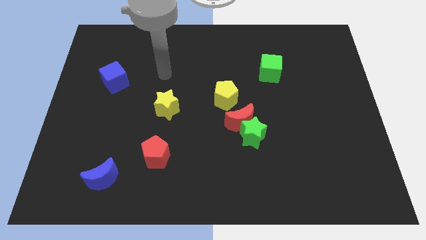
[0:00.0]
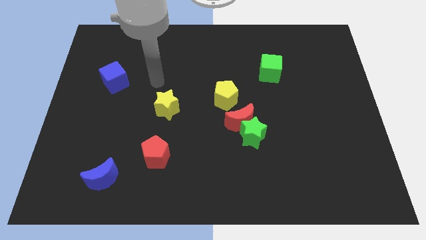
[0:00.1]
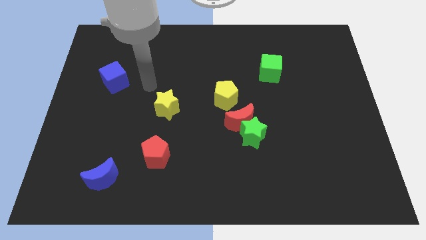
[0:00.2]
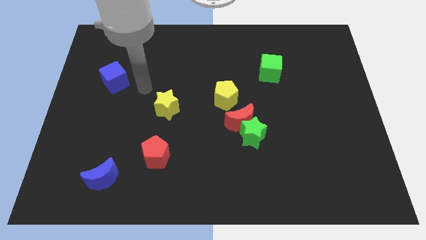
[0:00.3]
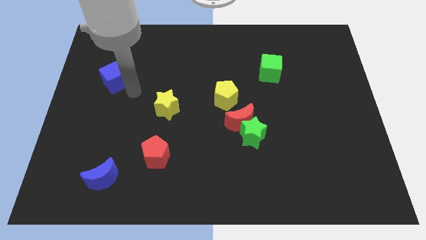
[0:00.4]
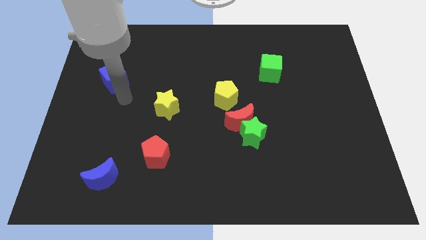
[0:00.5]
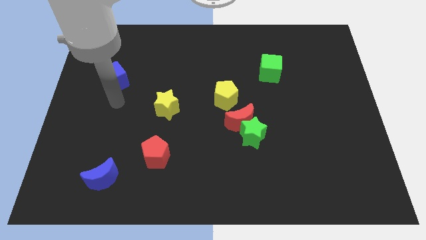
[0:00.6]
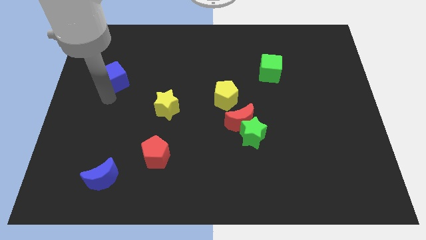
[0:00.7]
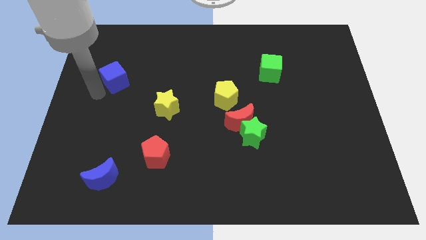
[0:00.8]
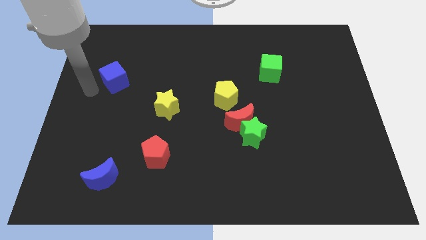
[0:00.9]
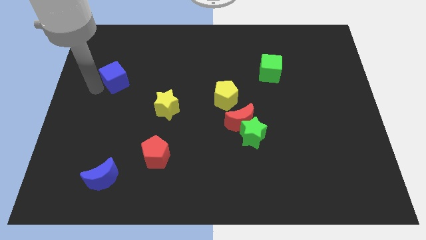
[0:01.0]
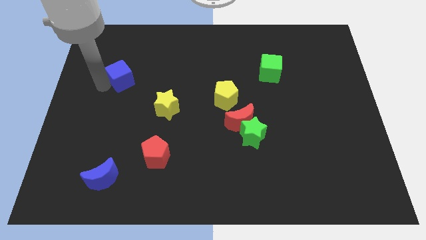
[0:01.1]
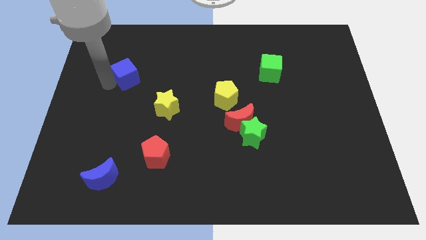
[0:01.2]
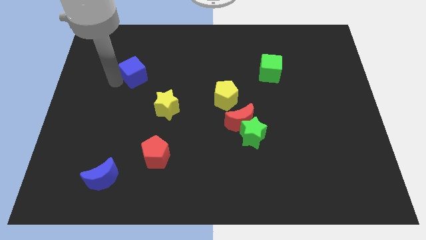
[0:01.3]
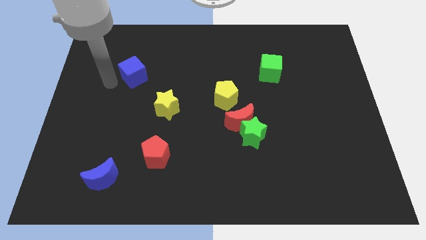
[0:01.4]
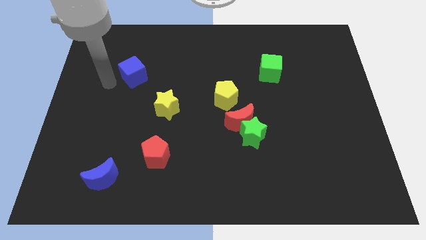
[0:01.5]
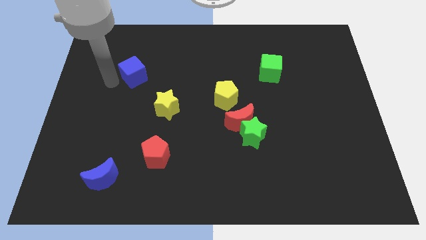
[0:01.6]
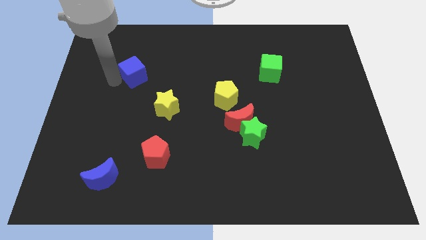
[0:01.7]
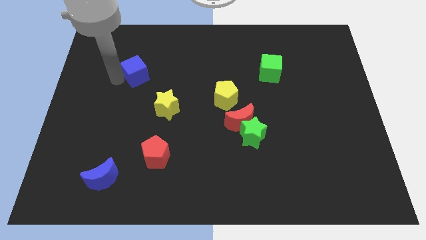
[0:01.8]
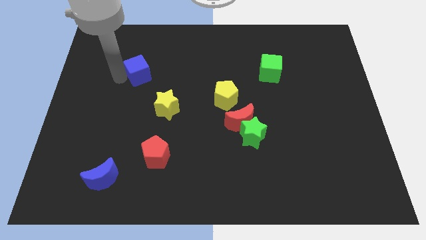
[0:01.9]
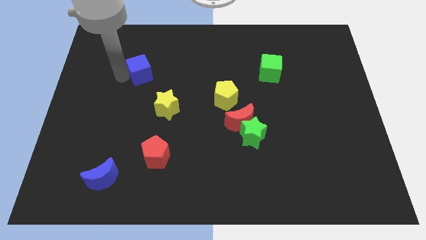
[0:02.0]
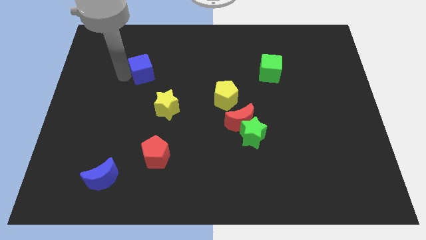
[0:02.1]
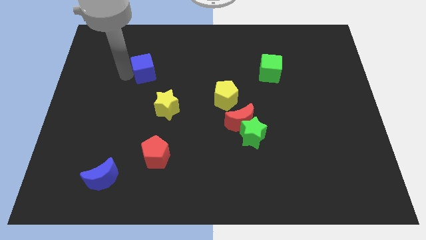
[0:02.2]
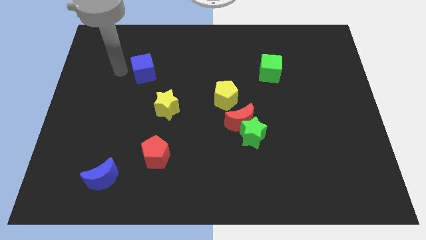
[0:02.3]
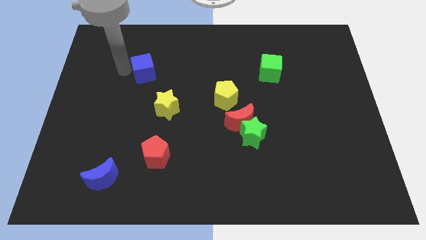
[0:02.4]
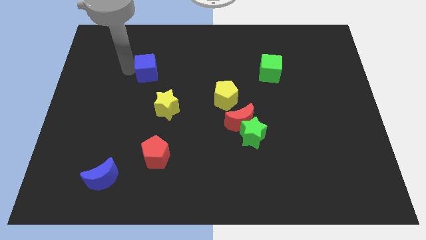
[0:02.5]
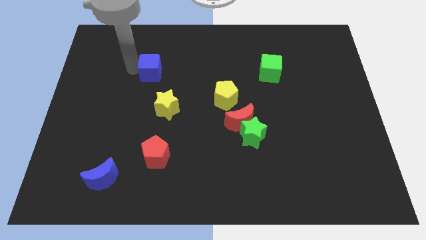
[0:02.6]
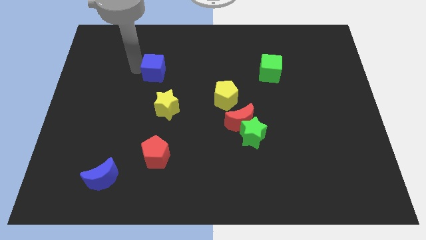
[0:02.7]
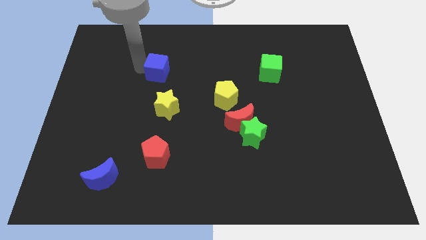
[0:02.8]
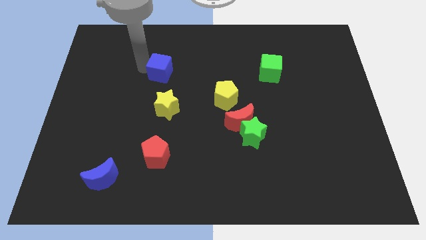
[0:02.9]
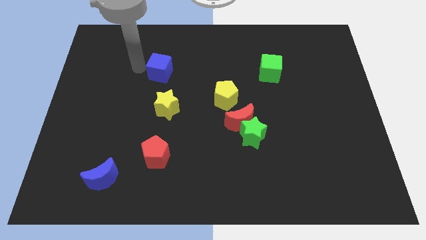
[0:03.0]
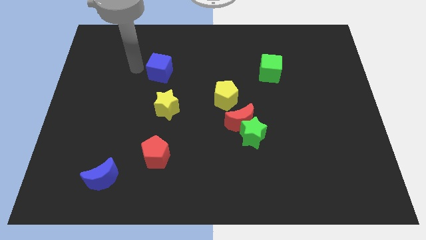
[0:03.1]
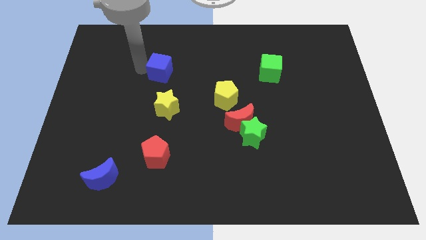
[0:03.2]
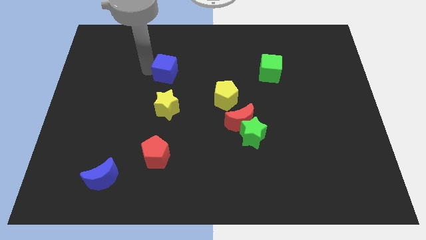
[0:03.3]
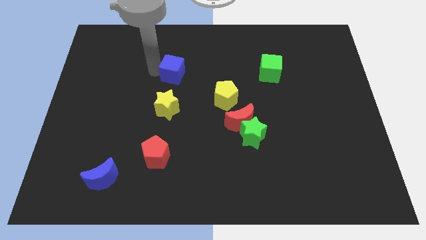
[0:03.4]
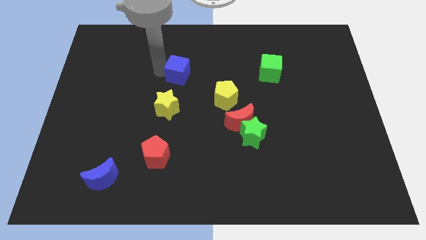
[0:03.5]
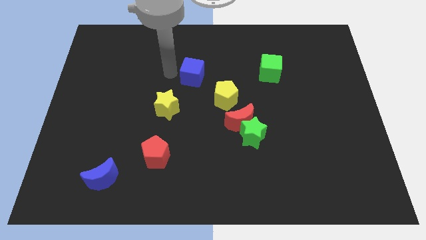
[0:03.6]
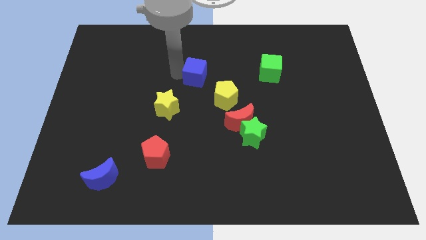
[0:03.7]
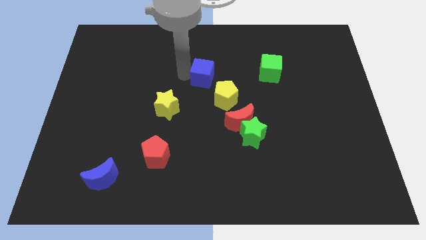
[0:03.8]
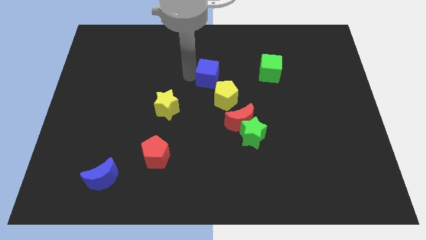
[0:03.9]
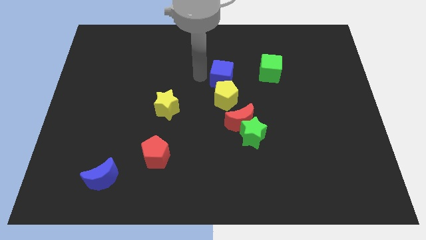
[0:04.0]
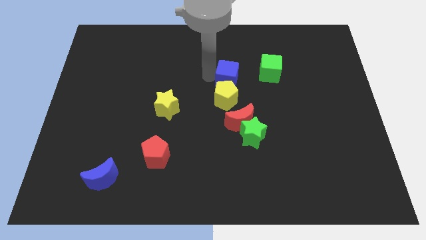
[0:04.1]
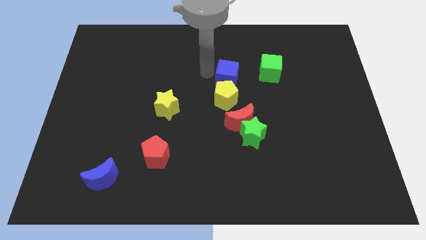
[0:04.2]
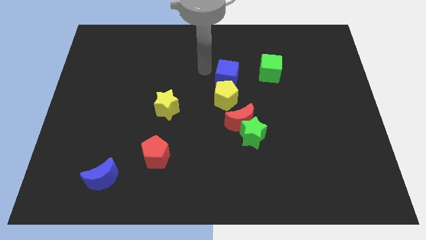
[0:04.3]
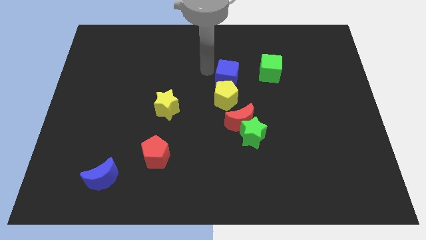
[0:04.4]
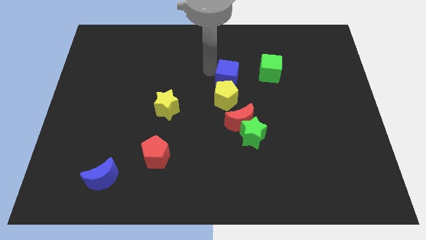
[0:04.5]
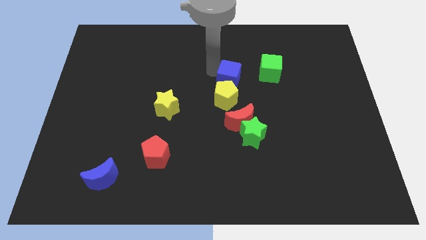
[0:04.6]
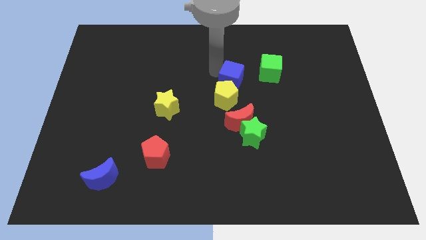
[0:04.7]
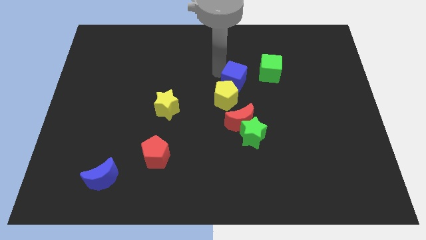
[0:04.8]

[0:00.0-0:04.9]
put the blue cube to the bottom left of the green cube

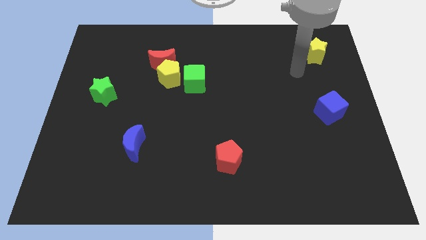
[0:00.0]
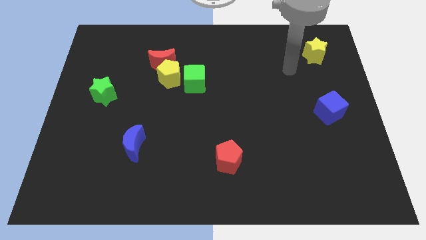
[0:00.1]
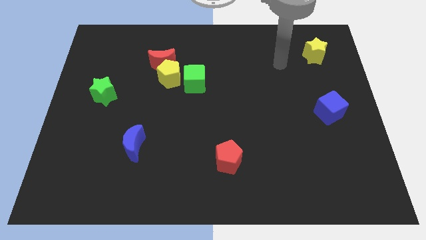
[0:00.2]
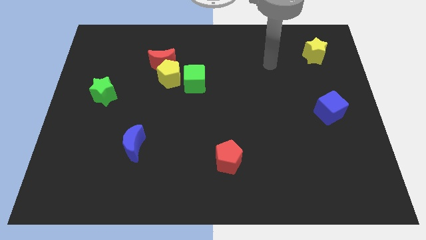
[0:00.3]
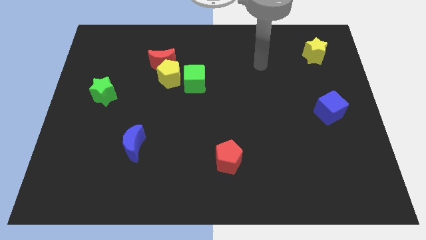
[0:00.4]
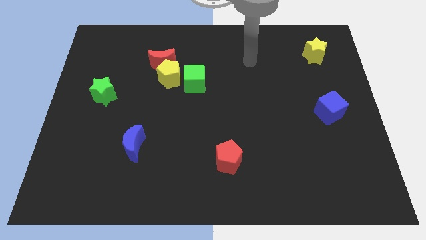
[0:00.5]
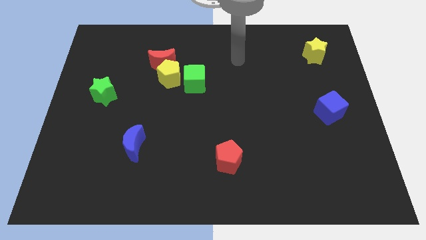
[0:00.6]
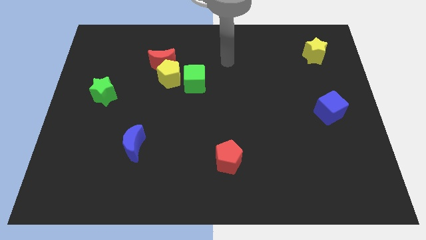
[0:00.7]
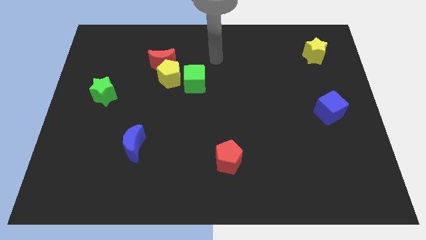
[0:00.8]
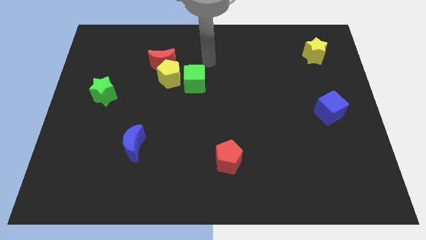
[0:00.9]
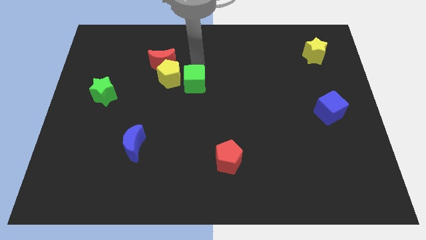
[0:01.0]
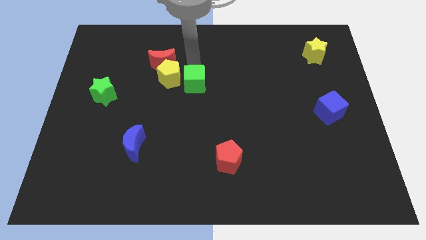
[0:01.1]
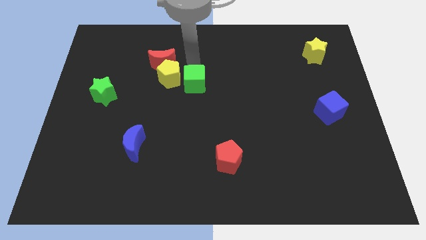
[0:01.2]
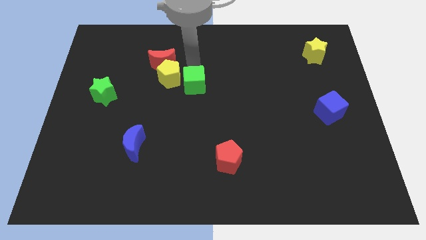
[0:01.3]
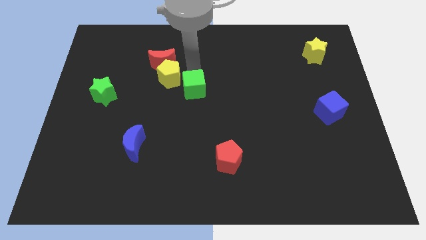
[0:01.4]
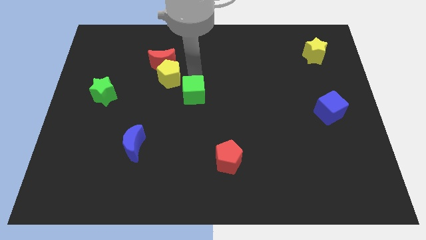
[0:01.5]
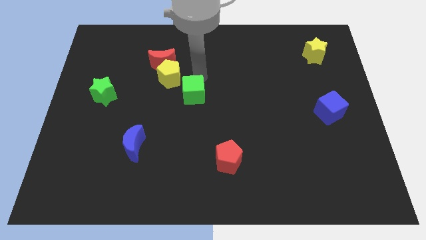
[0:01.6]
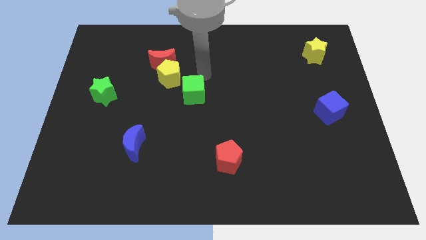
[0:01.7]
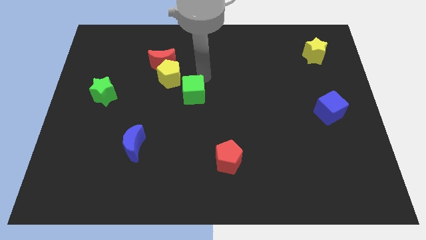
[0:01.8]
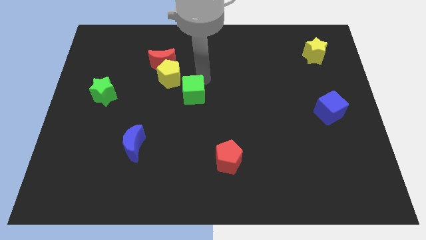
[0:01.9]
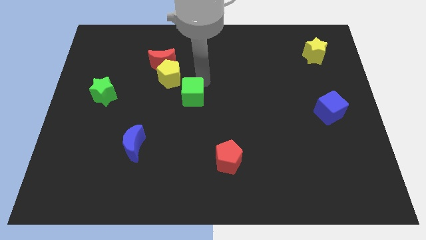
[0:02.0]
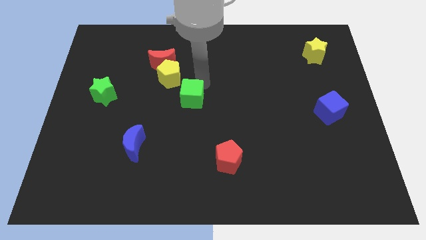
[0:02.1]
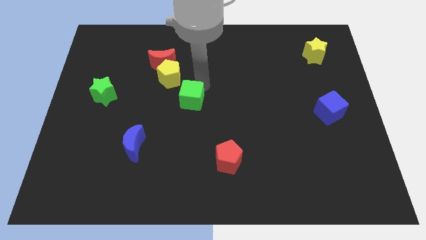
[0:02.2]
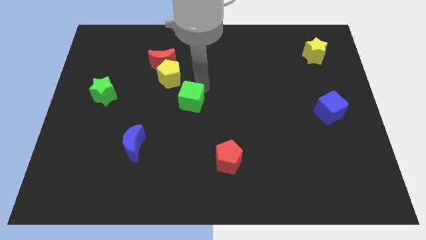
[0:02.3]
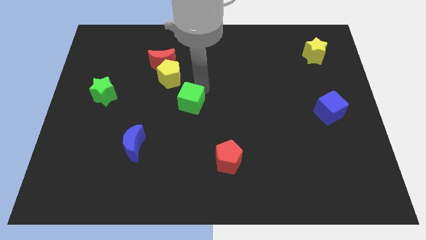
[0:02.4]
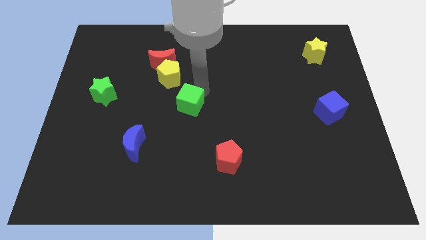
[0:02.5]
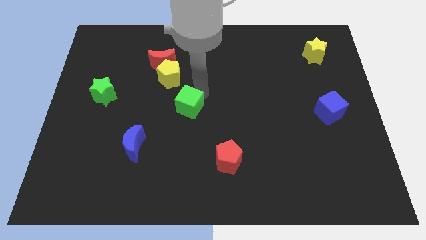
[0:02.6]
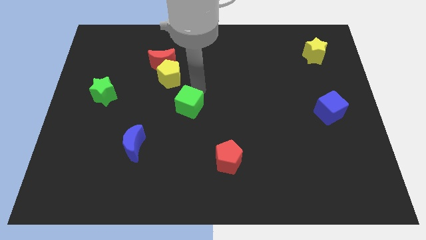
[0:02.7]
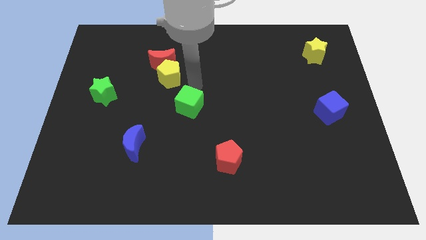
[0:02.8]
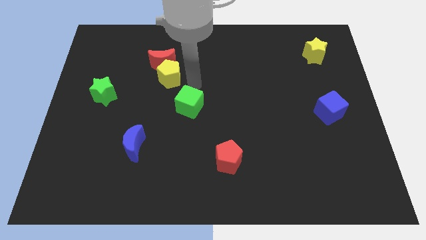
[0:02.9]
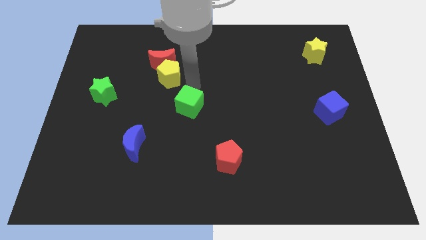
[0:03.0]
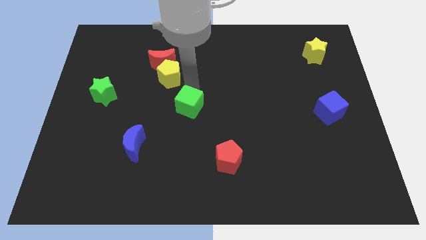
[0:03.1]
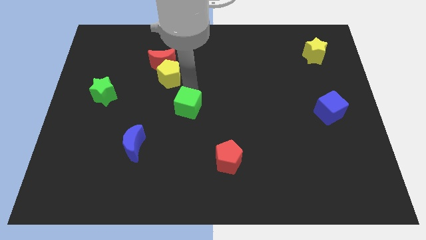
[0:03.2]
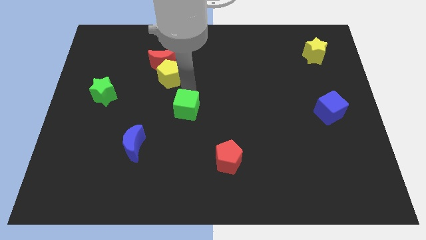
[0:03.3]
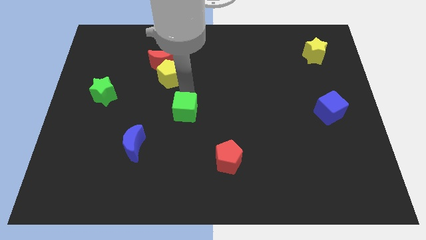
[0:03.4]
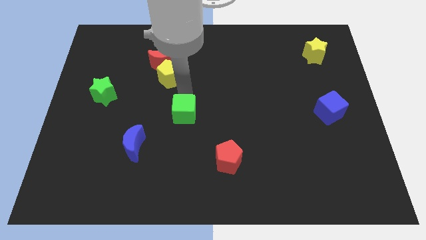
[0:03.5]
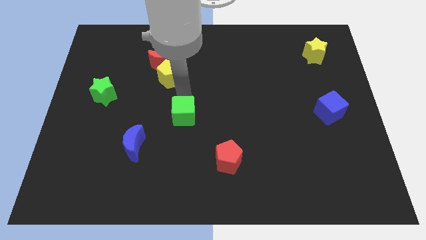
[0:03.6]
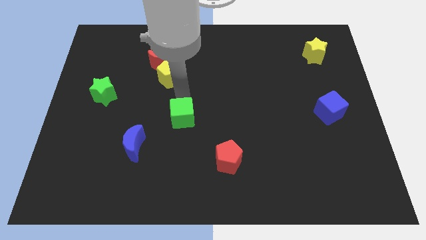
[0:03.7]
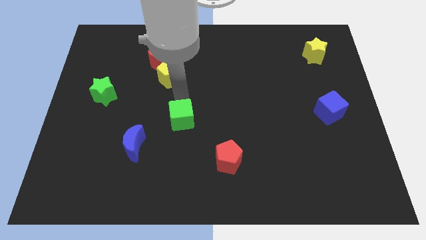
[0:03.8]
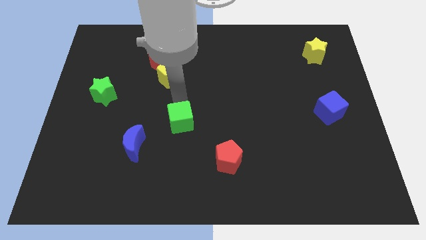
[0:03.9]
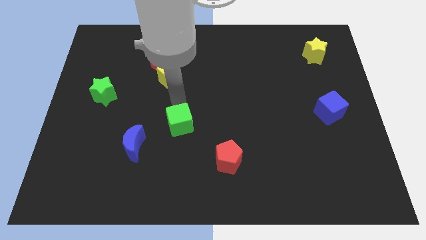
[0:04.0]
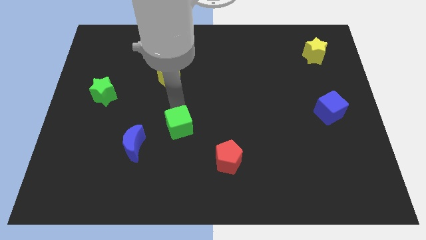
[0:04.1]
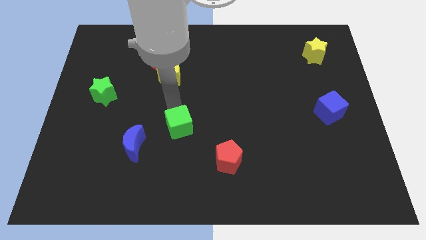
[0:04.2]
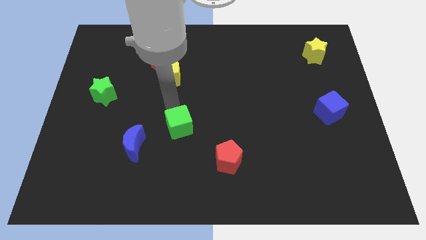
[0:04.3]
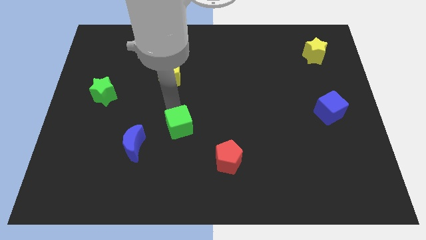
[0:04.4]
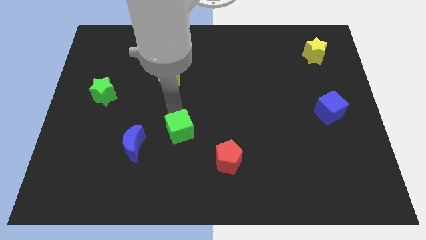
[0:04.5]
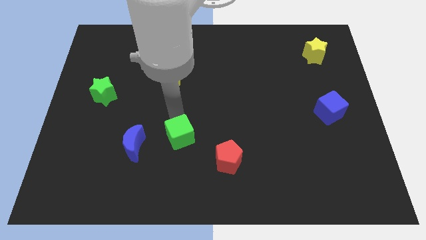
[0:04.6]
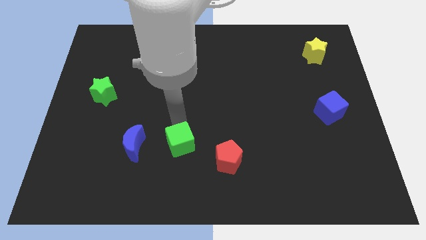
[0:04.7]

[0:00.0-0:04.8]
put the green cube left of the red pentagon
